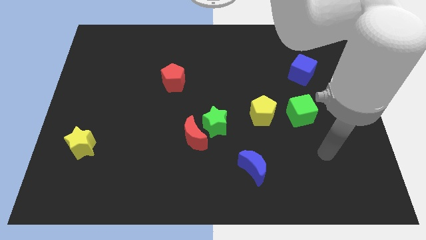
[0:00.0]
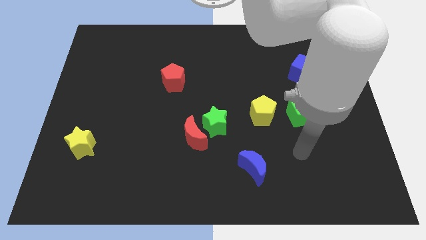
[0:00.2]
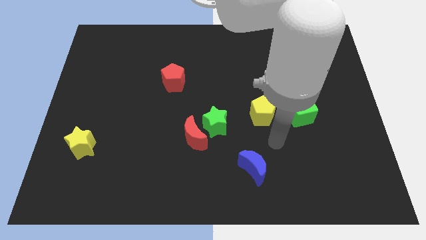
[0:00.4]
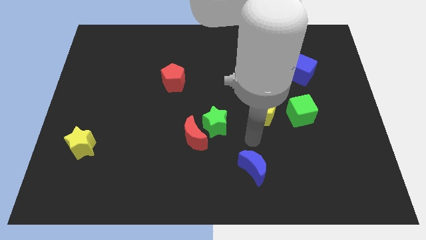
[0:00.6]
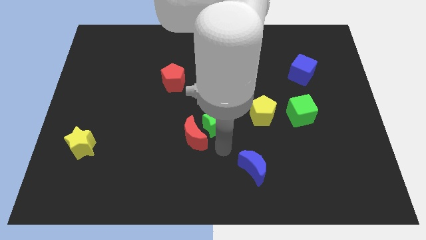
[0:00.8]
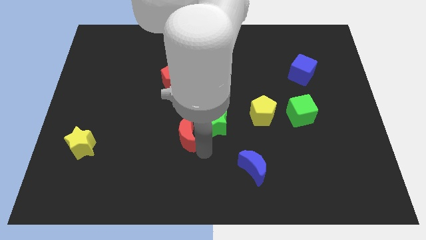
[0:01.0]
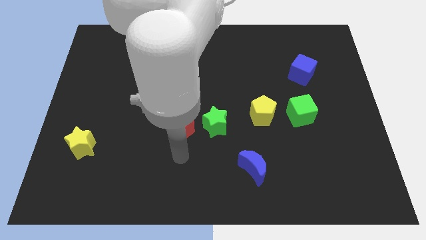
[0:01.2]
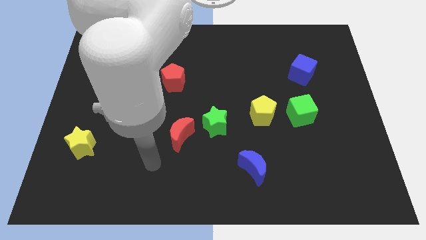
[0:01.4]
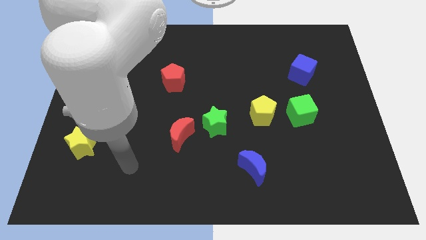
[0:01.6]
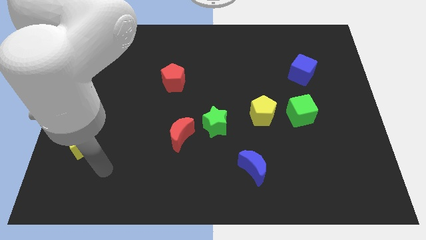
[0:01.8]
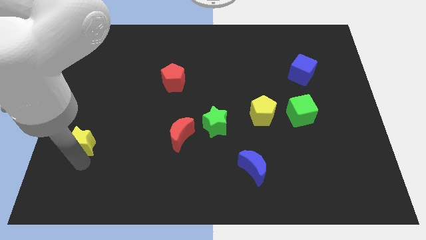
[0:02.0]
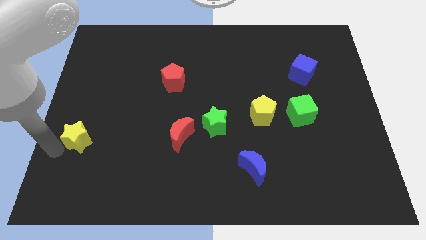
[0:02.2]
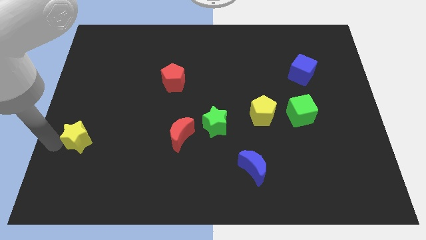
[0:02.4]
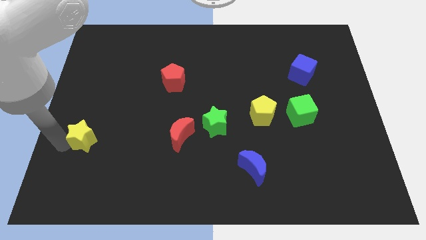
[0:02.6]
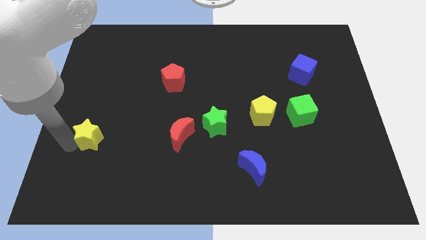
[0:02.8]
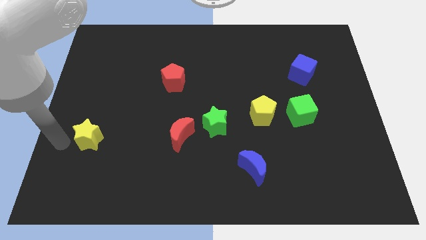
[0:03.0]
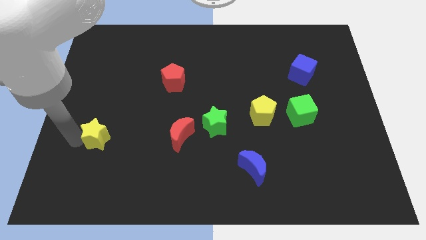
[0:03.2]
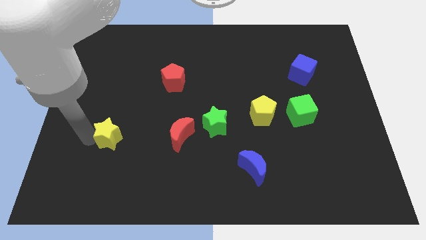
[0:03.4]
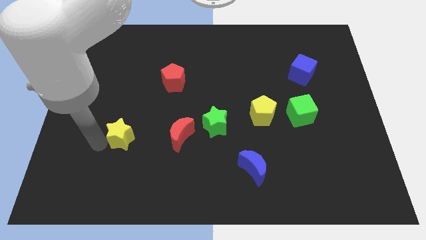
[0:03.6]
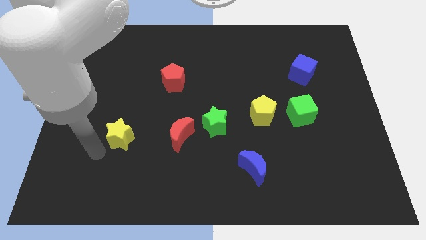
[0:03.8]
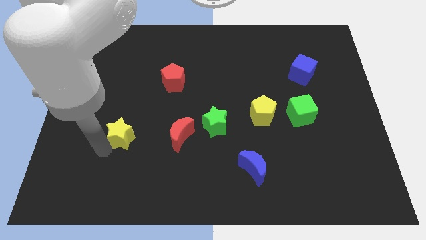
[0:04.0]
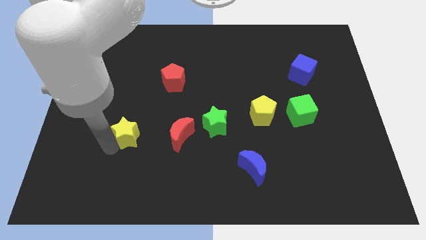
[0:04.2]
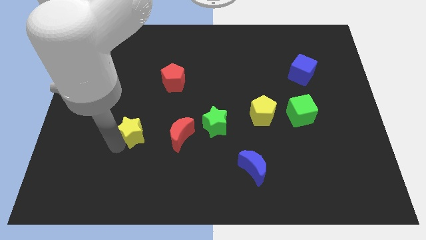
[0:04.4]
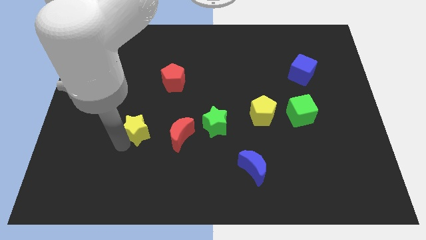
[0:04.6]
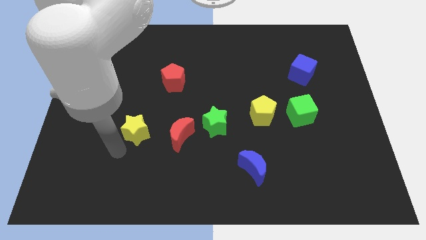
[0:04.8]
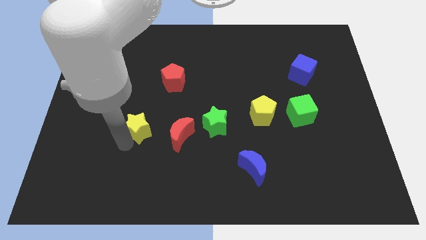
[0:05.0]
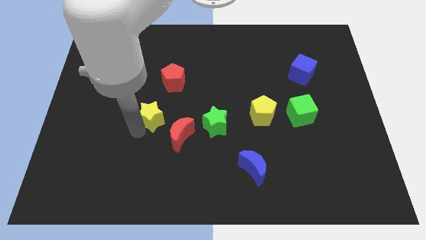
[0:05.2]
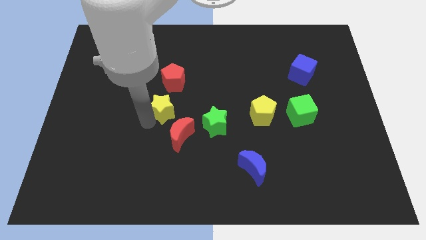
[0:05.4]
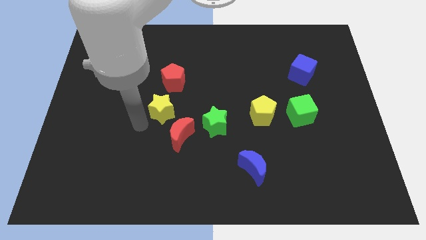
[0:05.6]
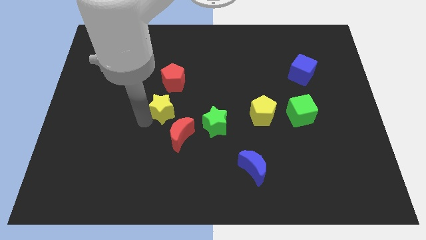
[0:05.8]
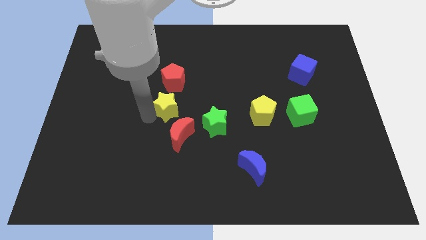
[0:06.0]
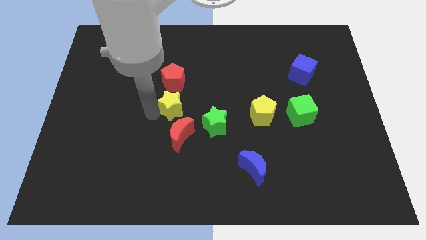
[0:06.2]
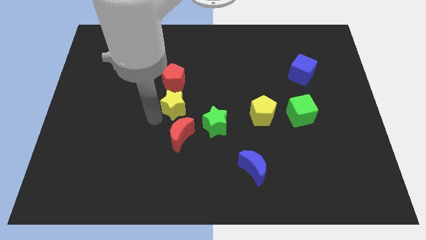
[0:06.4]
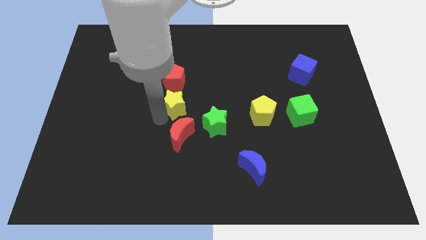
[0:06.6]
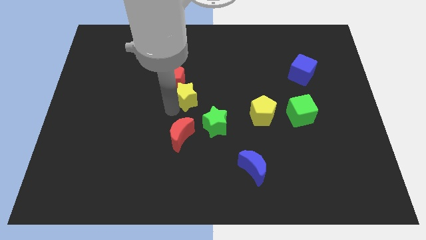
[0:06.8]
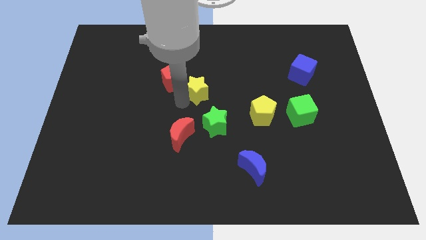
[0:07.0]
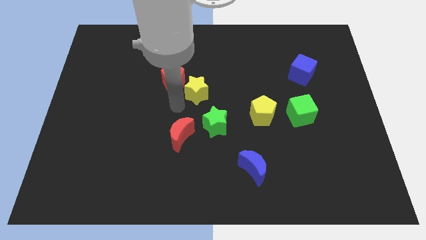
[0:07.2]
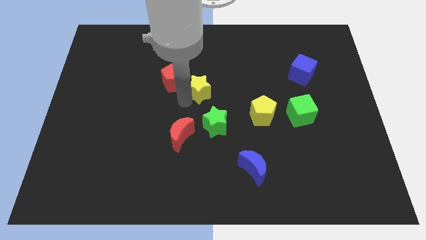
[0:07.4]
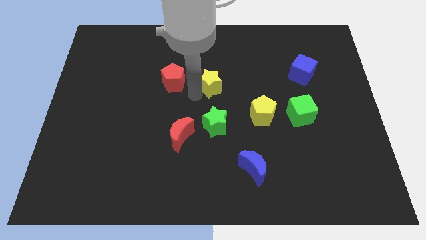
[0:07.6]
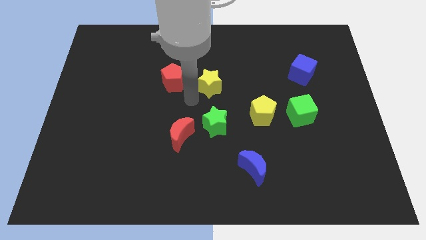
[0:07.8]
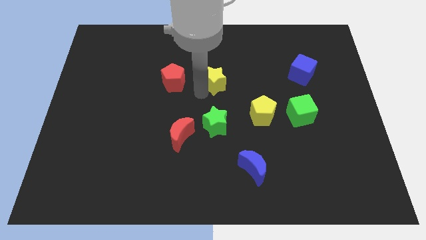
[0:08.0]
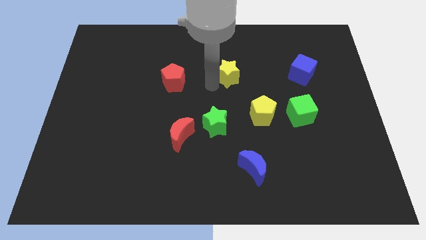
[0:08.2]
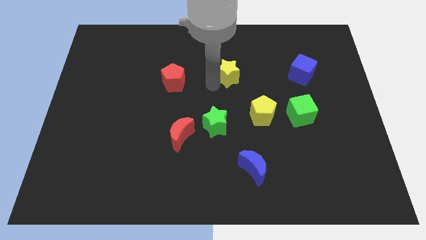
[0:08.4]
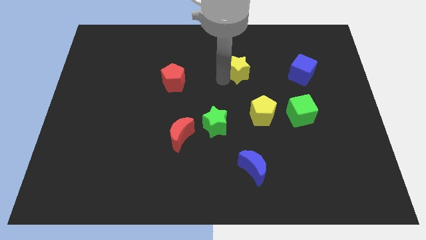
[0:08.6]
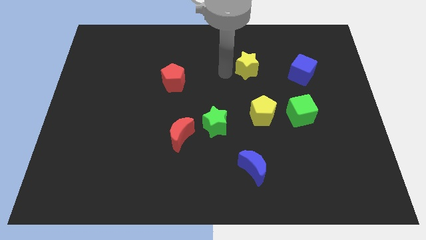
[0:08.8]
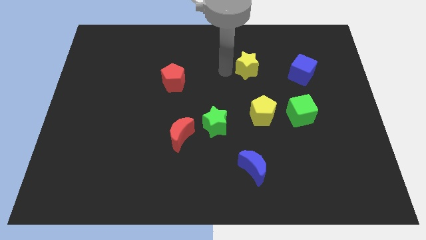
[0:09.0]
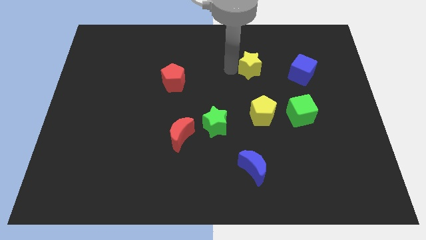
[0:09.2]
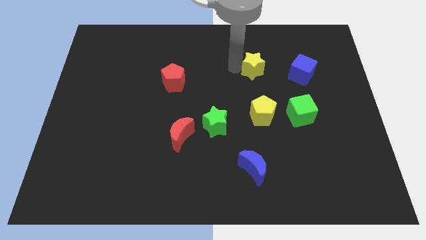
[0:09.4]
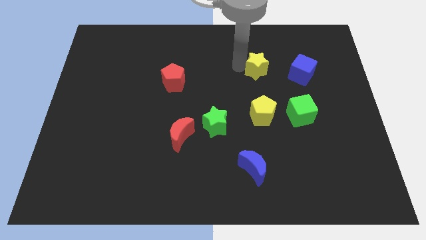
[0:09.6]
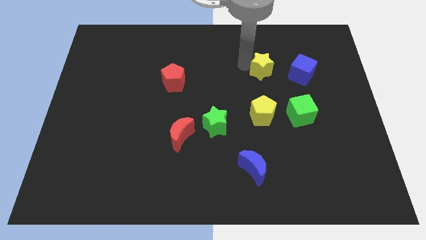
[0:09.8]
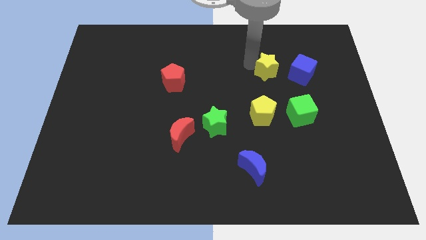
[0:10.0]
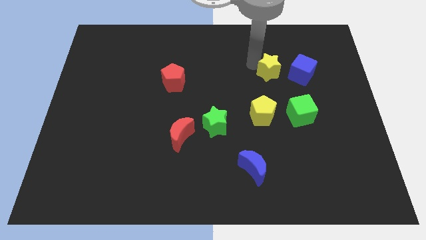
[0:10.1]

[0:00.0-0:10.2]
slide the yellow star diagonally up and to the left of the blue cube

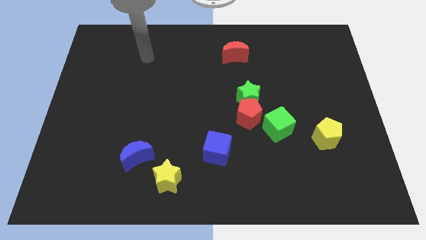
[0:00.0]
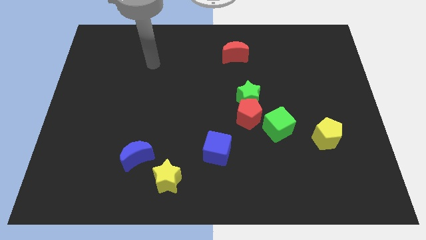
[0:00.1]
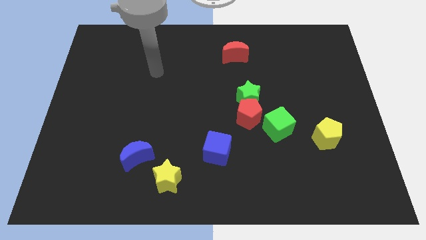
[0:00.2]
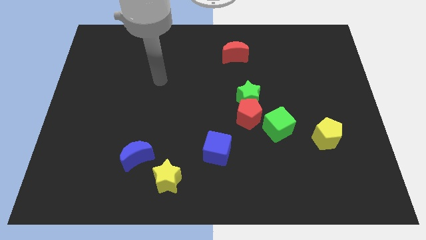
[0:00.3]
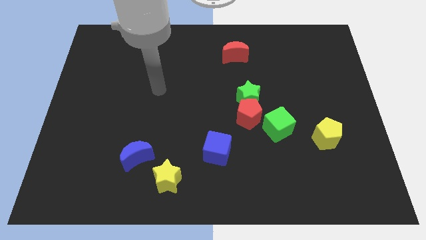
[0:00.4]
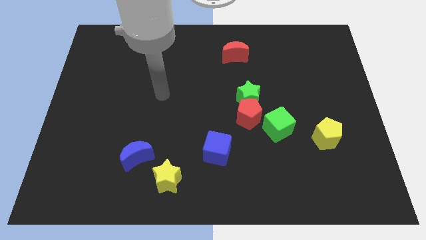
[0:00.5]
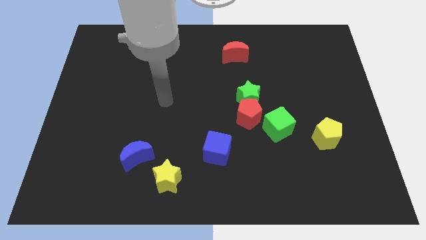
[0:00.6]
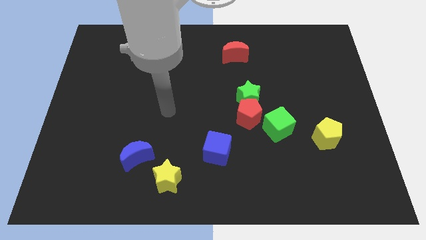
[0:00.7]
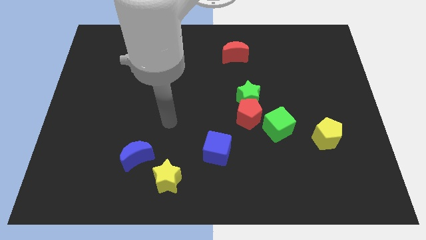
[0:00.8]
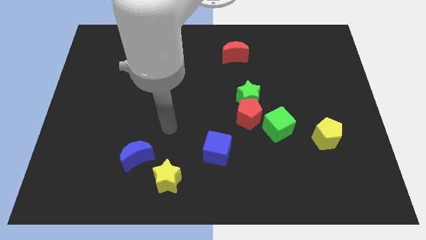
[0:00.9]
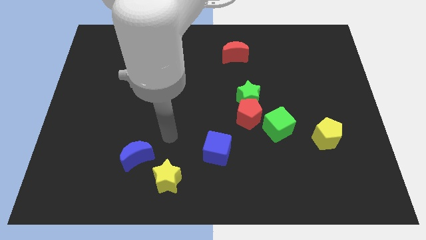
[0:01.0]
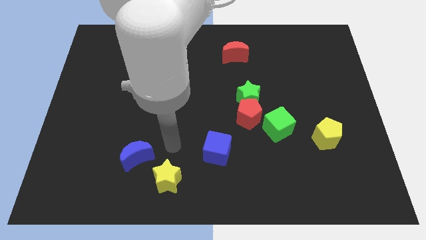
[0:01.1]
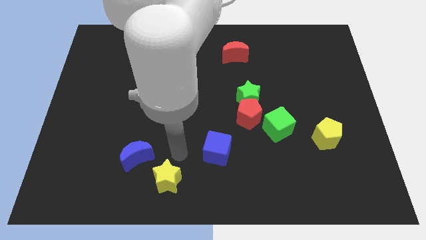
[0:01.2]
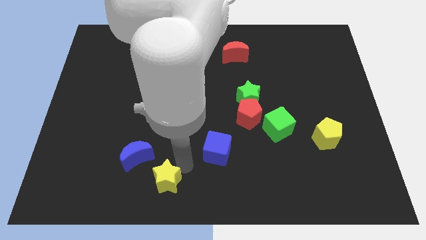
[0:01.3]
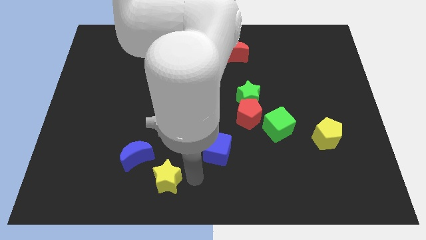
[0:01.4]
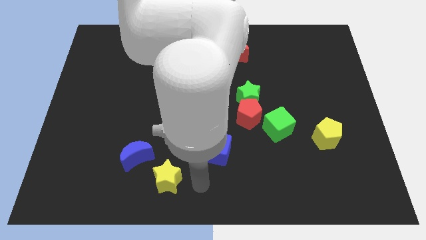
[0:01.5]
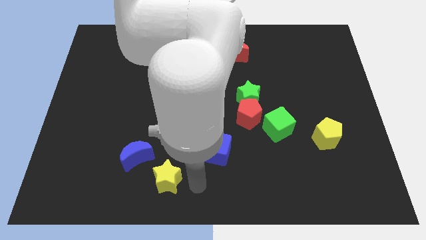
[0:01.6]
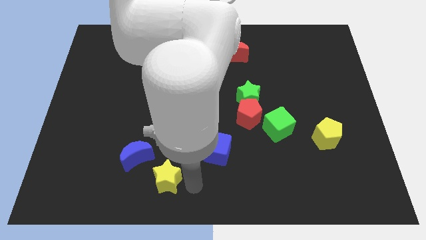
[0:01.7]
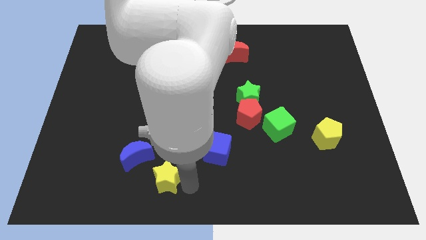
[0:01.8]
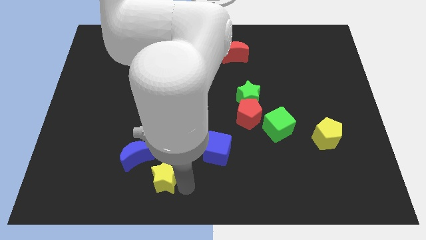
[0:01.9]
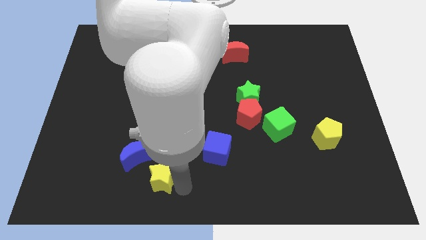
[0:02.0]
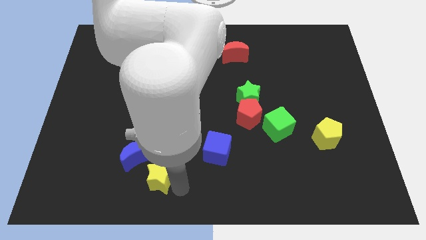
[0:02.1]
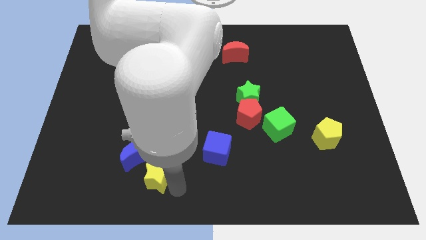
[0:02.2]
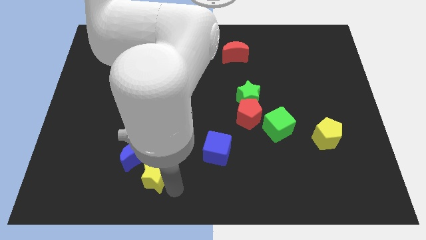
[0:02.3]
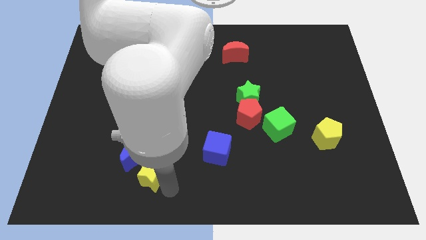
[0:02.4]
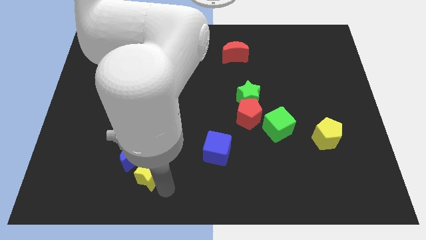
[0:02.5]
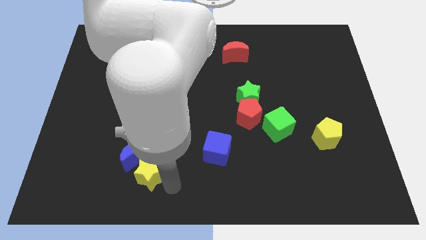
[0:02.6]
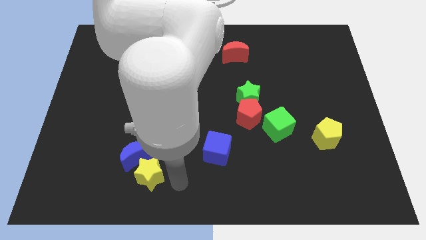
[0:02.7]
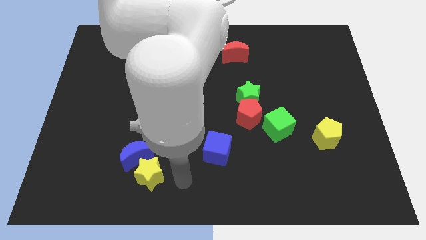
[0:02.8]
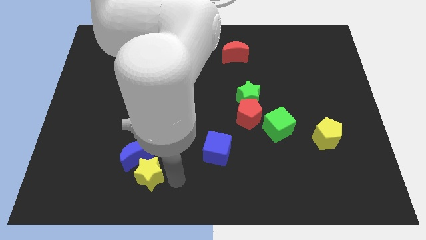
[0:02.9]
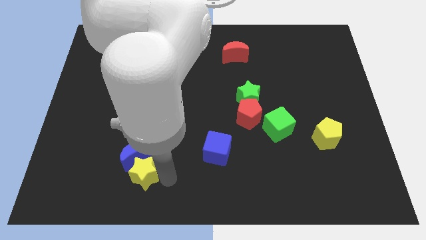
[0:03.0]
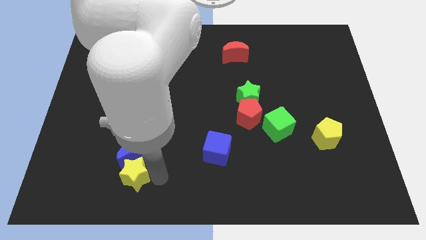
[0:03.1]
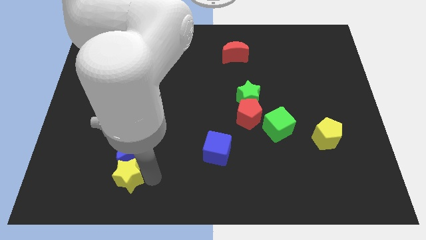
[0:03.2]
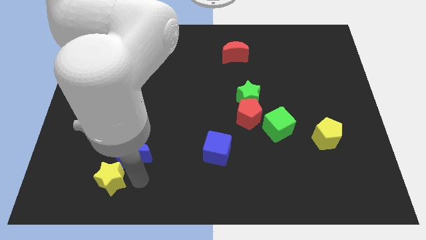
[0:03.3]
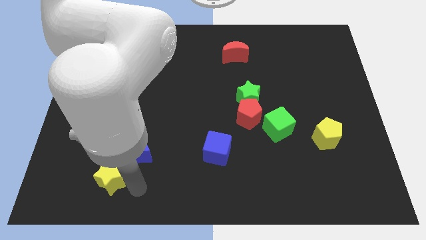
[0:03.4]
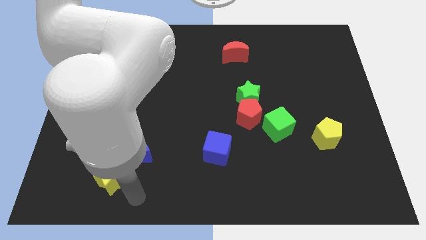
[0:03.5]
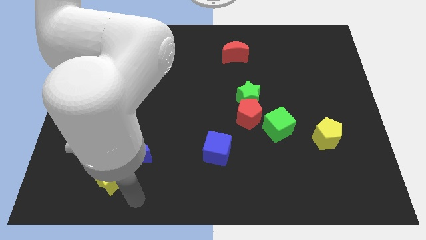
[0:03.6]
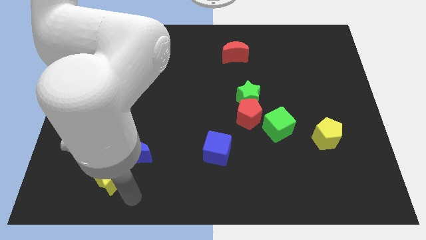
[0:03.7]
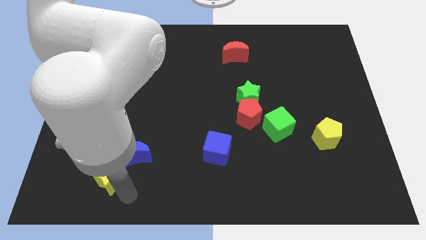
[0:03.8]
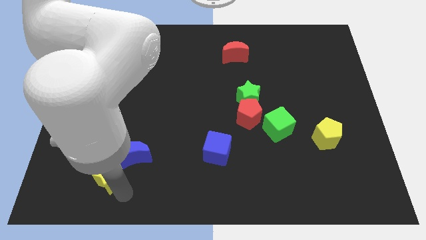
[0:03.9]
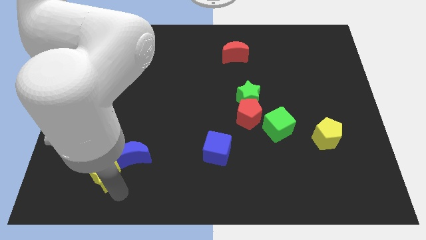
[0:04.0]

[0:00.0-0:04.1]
put the yellow star to the left of the blue moon
